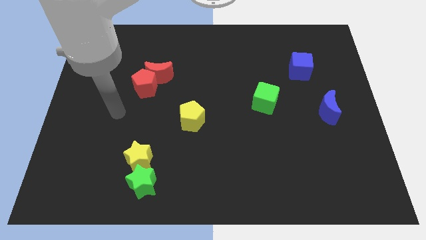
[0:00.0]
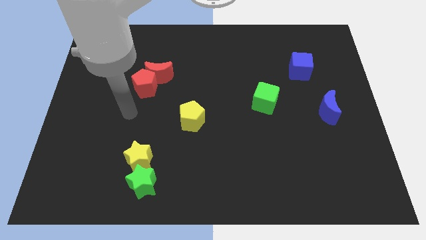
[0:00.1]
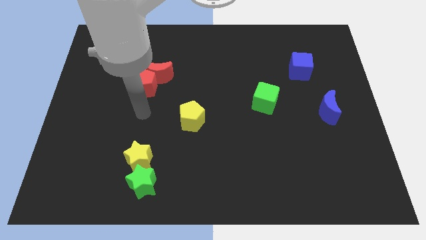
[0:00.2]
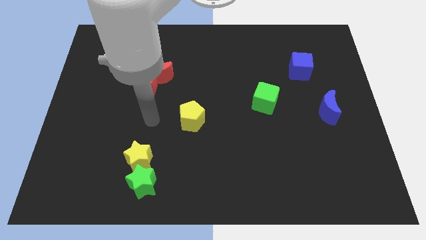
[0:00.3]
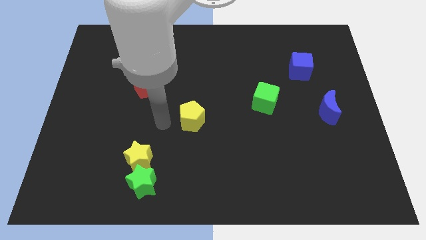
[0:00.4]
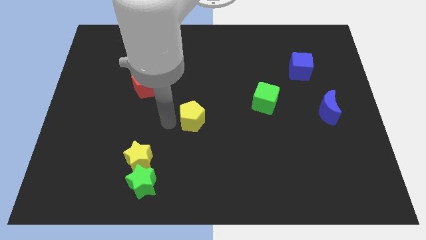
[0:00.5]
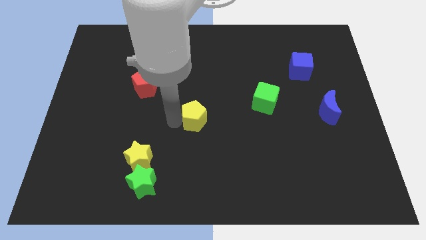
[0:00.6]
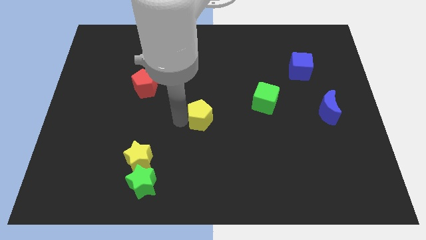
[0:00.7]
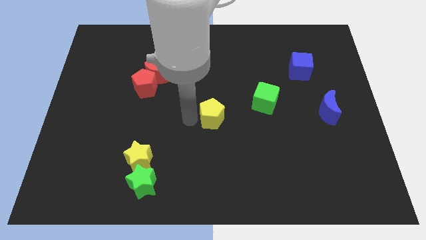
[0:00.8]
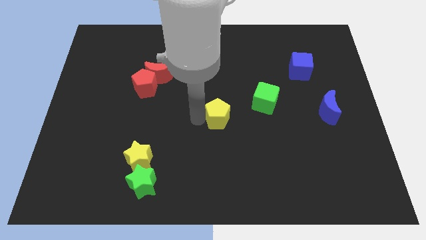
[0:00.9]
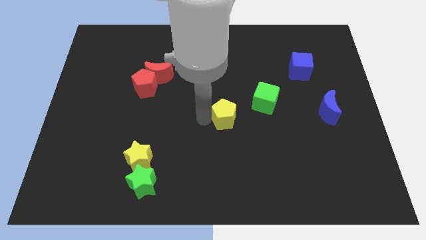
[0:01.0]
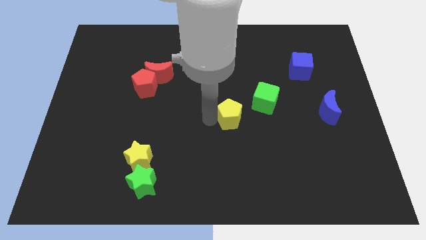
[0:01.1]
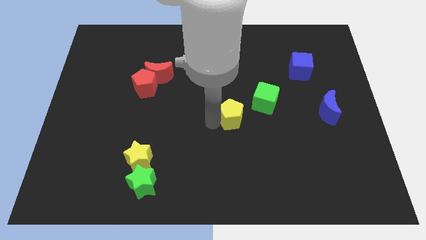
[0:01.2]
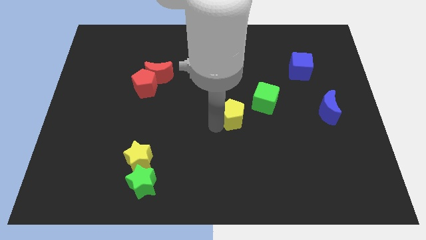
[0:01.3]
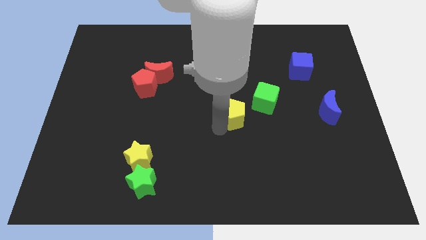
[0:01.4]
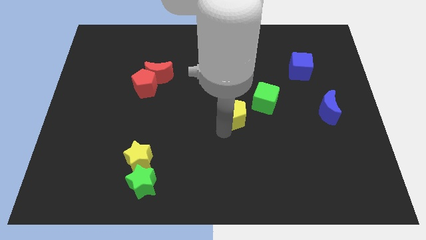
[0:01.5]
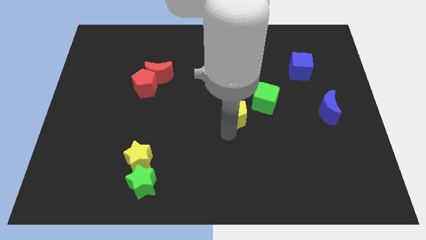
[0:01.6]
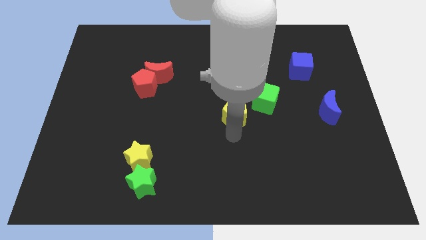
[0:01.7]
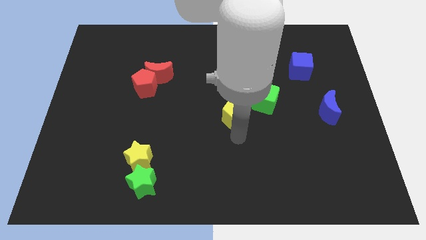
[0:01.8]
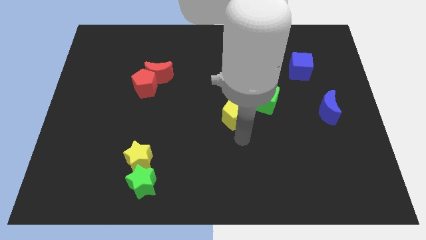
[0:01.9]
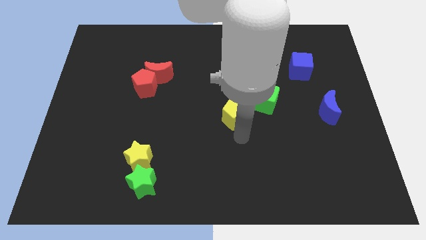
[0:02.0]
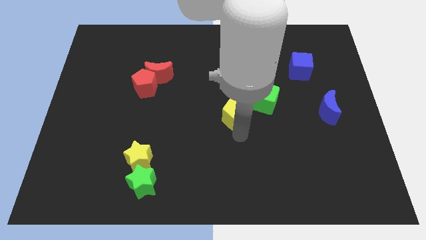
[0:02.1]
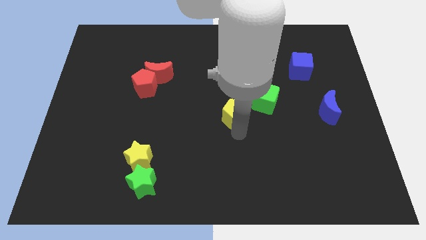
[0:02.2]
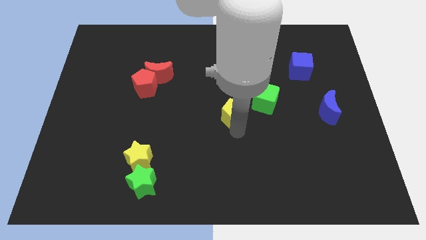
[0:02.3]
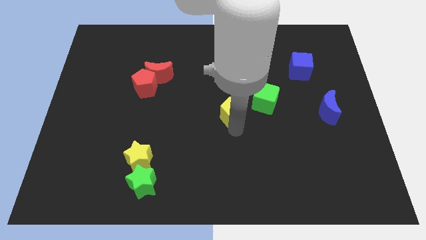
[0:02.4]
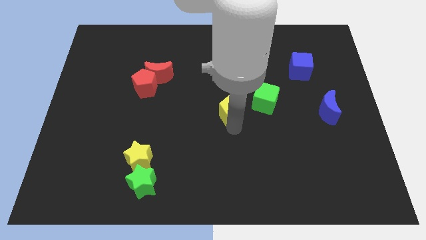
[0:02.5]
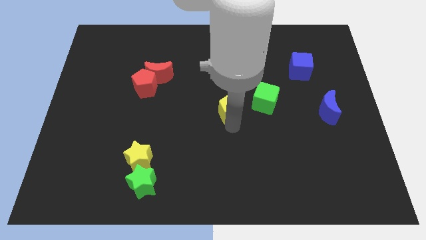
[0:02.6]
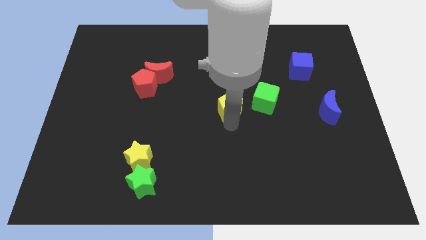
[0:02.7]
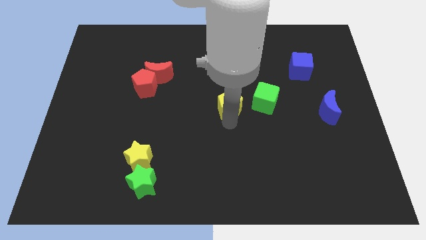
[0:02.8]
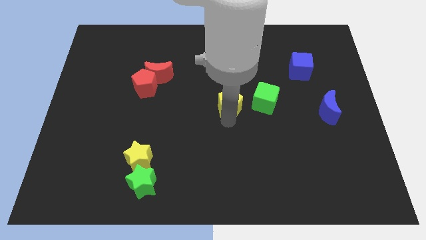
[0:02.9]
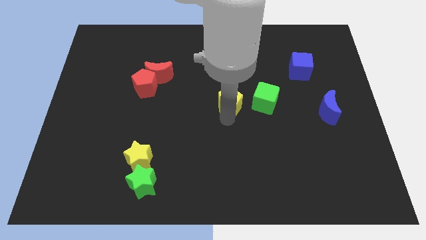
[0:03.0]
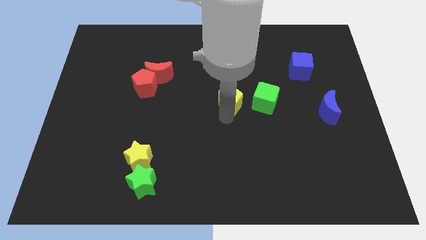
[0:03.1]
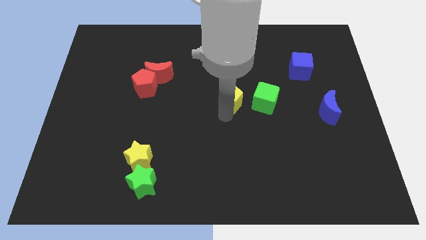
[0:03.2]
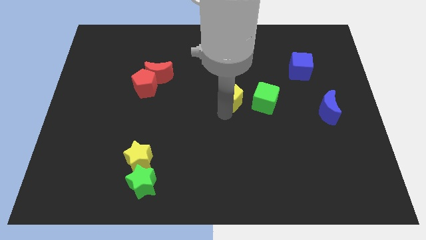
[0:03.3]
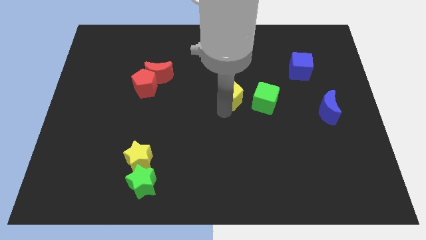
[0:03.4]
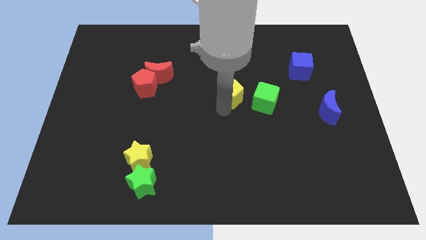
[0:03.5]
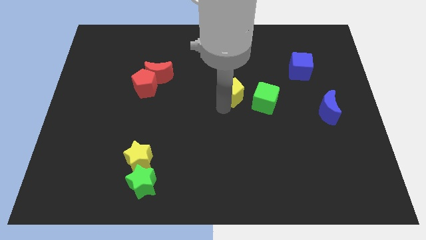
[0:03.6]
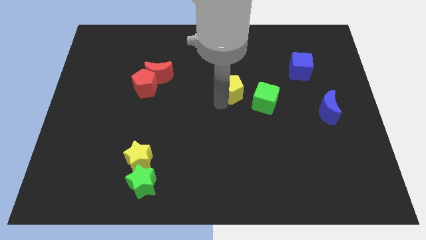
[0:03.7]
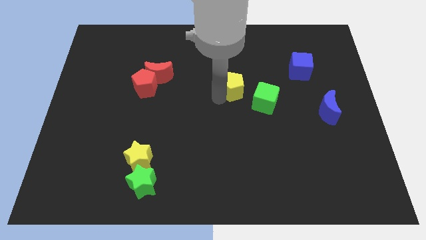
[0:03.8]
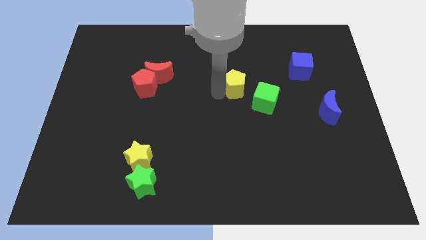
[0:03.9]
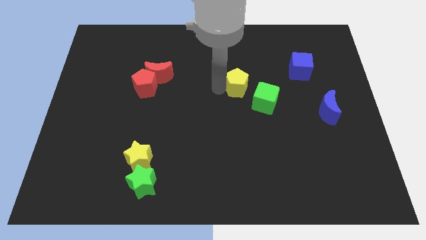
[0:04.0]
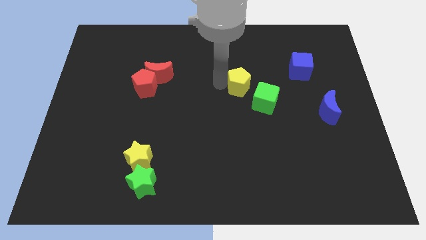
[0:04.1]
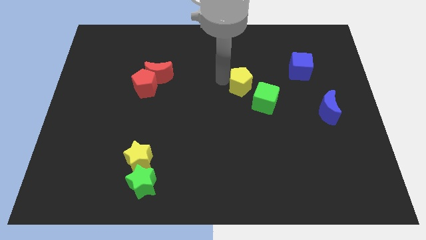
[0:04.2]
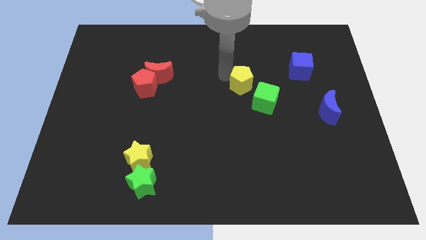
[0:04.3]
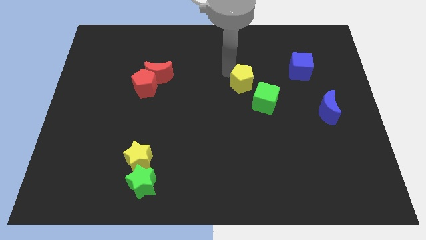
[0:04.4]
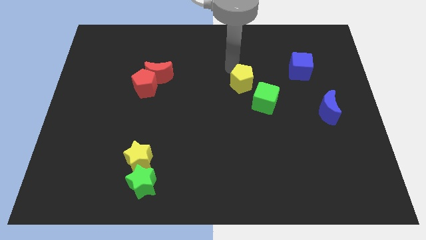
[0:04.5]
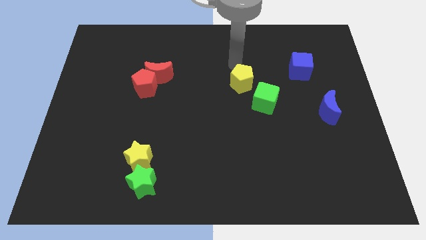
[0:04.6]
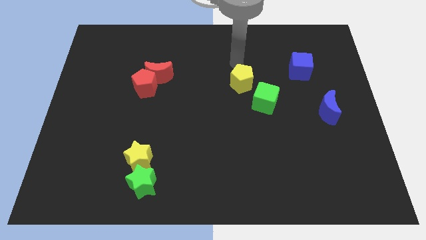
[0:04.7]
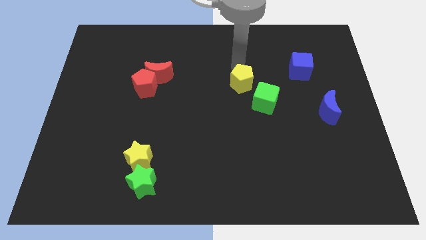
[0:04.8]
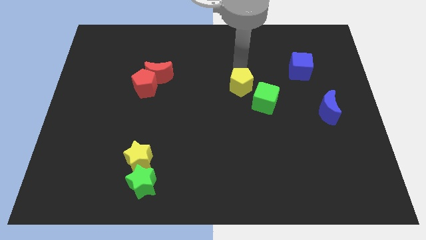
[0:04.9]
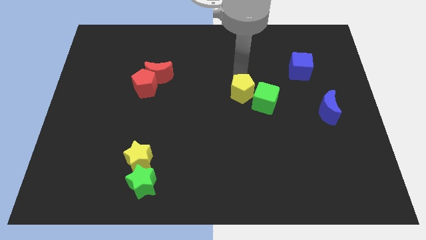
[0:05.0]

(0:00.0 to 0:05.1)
push the yellow pentagon close to the green cube

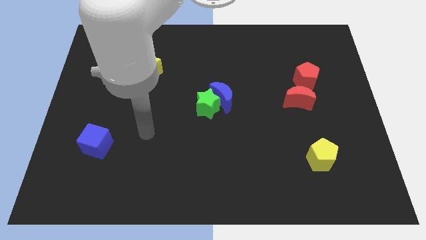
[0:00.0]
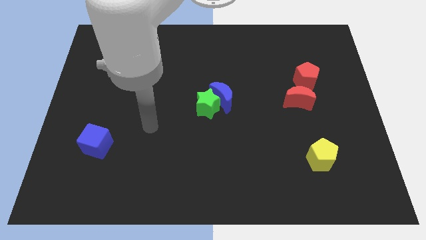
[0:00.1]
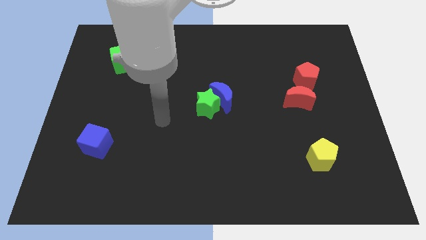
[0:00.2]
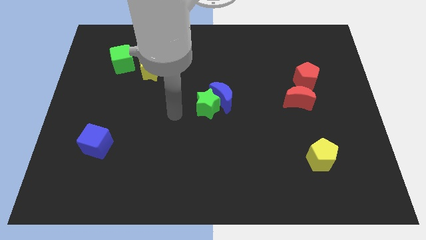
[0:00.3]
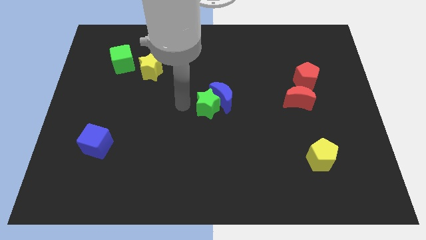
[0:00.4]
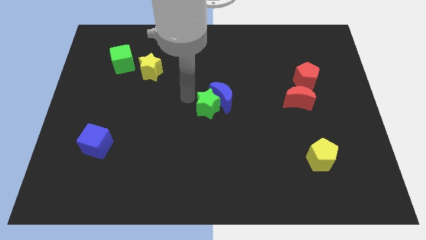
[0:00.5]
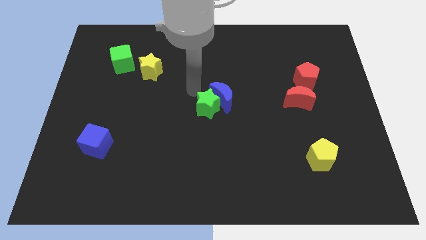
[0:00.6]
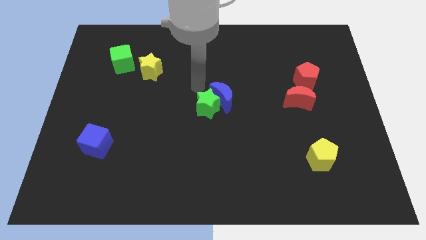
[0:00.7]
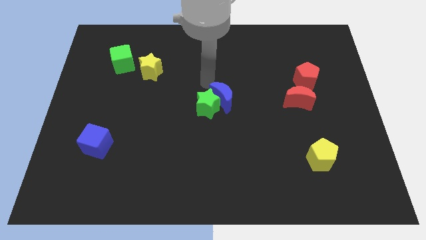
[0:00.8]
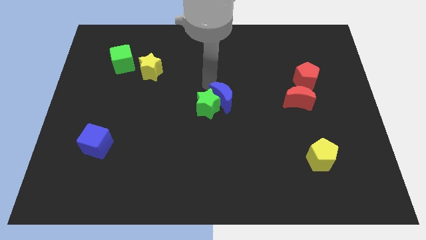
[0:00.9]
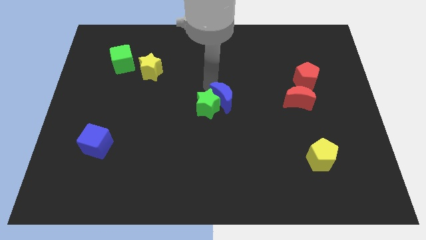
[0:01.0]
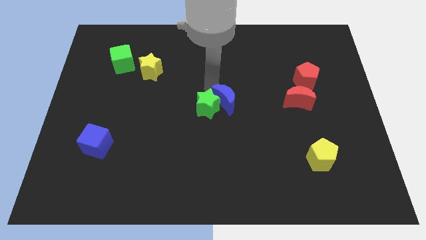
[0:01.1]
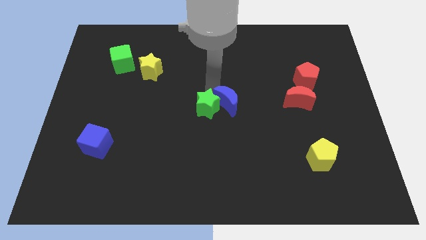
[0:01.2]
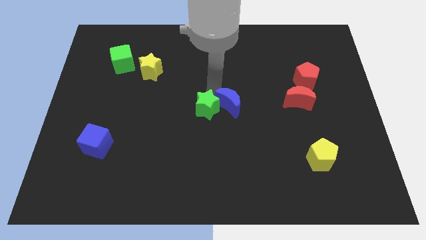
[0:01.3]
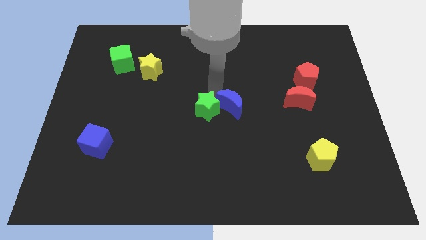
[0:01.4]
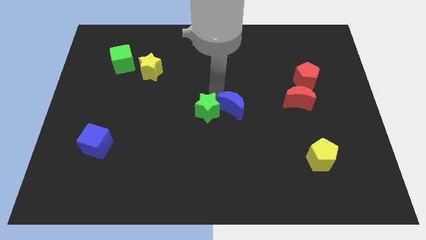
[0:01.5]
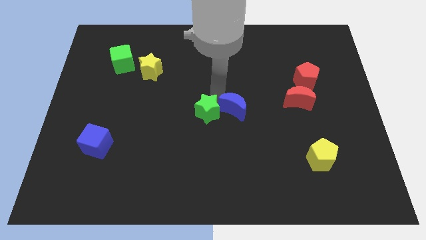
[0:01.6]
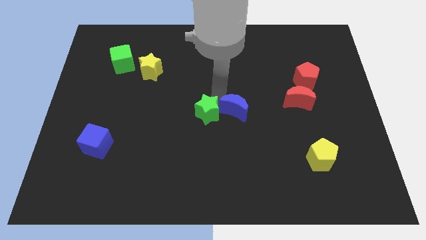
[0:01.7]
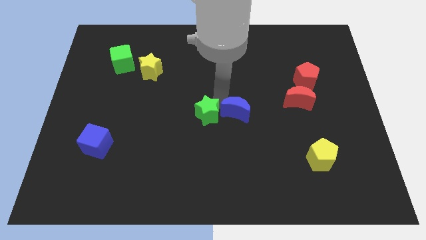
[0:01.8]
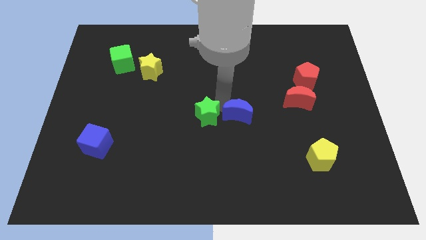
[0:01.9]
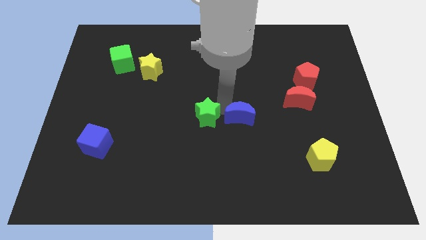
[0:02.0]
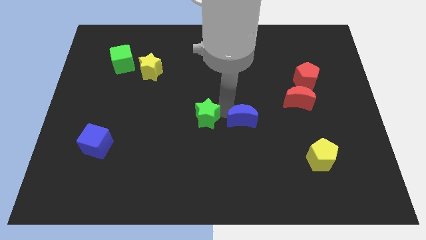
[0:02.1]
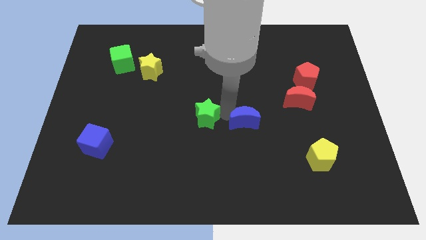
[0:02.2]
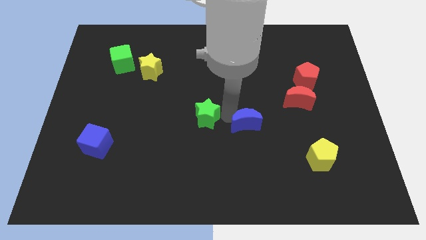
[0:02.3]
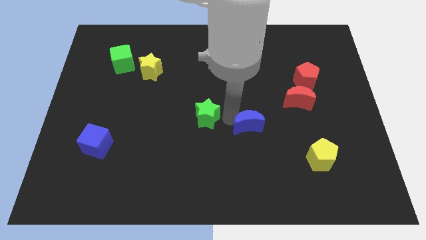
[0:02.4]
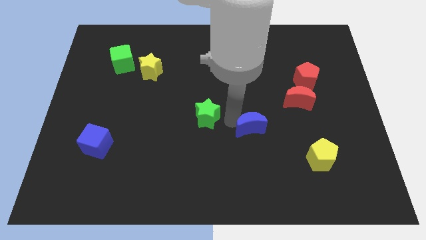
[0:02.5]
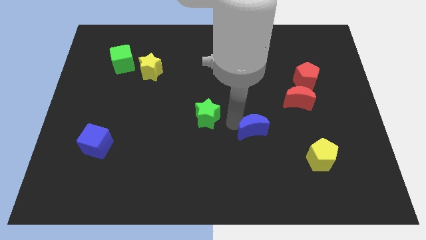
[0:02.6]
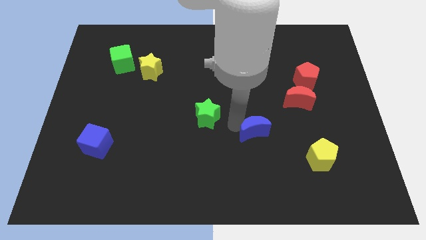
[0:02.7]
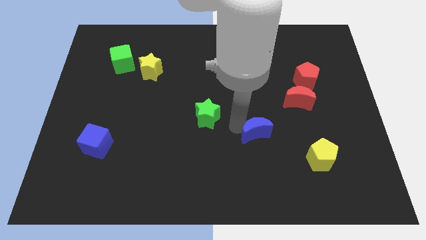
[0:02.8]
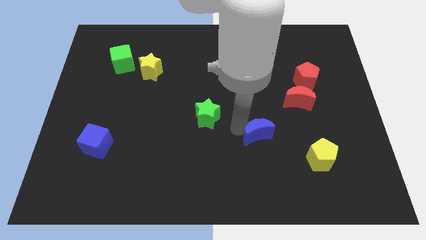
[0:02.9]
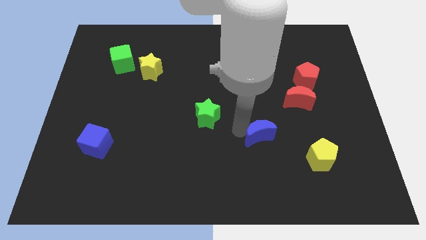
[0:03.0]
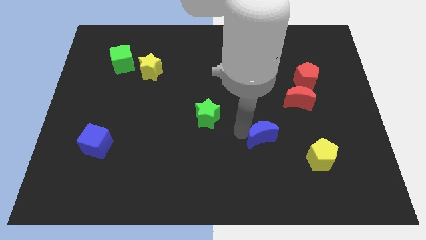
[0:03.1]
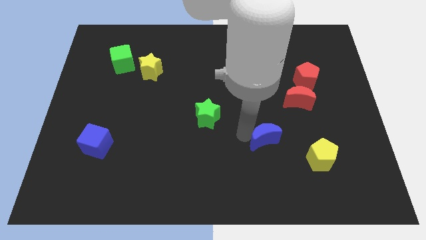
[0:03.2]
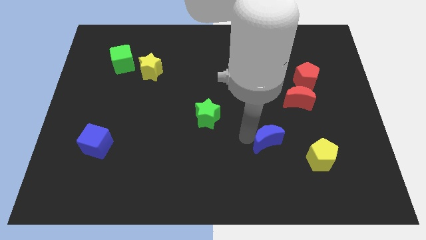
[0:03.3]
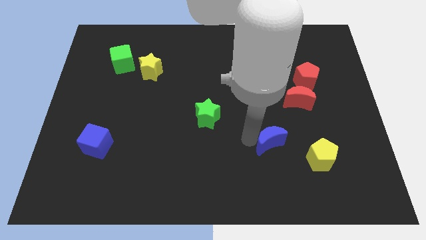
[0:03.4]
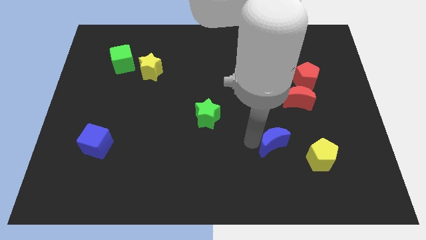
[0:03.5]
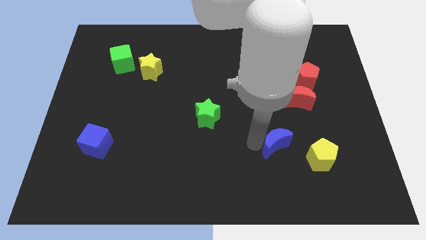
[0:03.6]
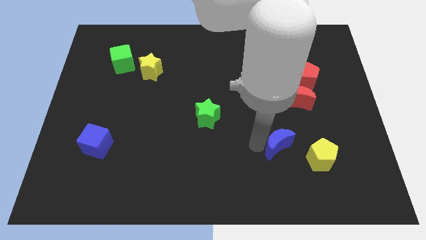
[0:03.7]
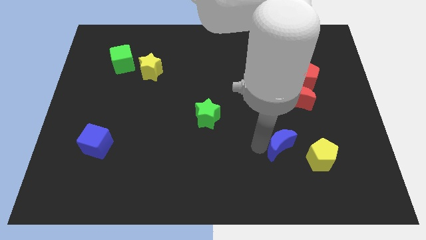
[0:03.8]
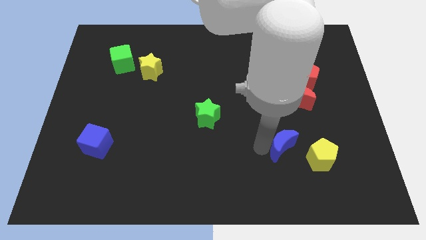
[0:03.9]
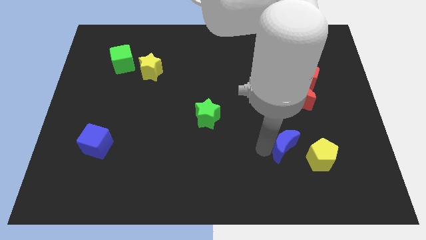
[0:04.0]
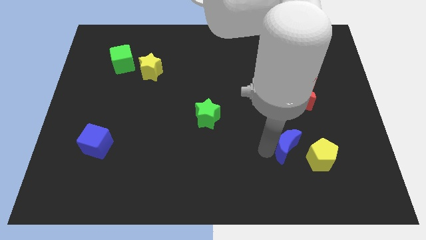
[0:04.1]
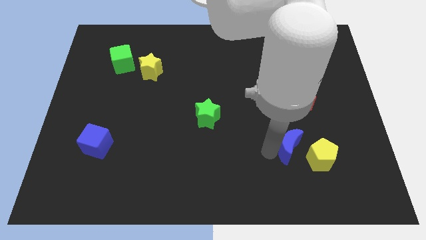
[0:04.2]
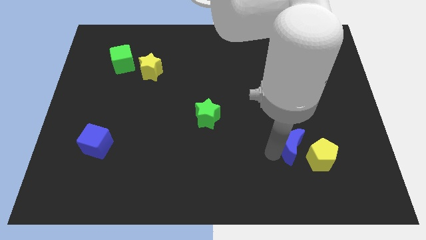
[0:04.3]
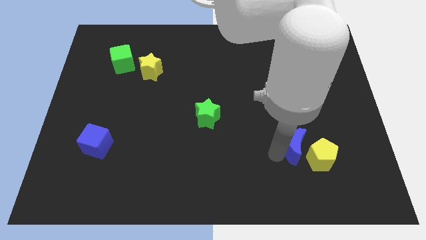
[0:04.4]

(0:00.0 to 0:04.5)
push the blue moon to the yellow pentagon
